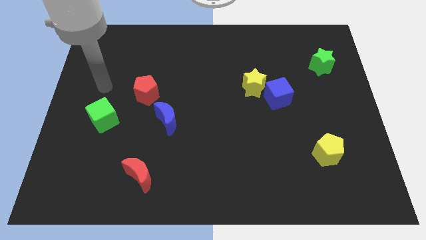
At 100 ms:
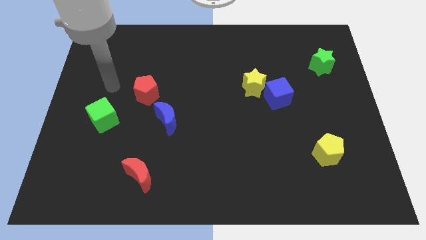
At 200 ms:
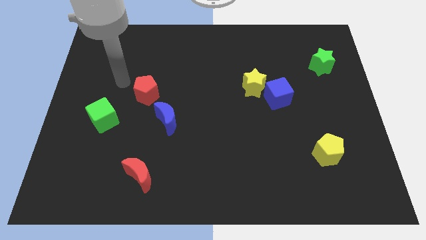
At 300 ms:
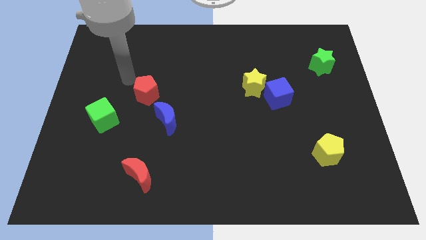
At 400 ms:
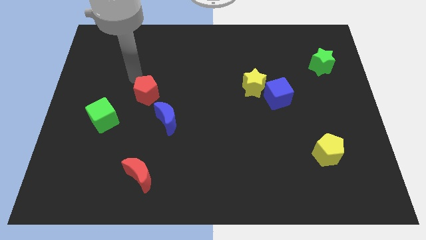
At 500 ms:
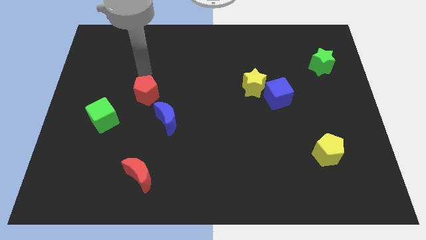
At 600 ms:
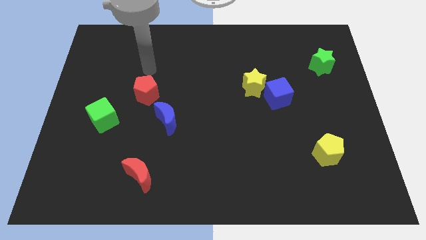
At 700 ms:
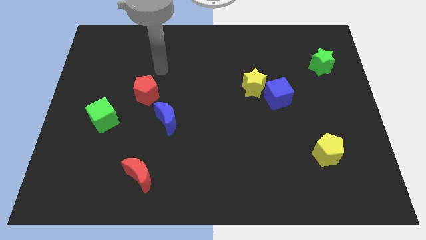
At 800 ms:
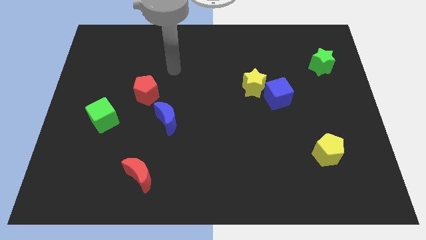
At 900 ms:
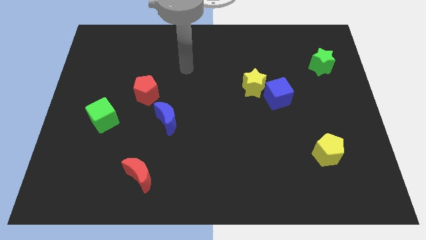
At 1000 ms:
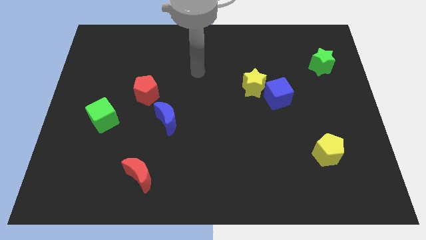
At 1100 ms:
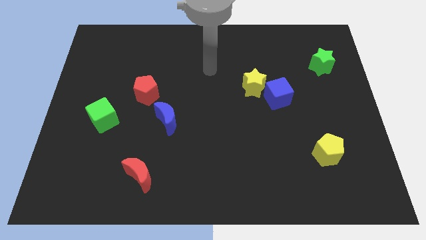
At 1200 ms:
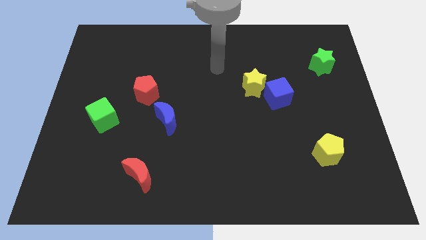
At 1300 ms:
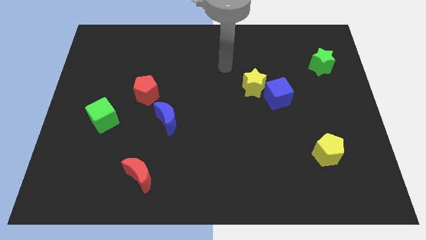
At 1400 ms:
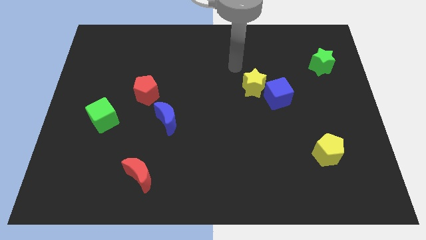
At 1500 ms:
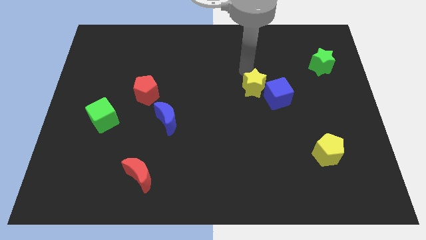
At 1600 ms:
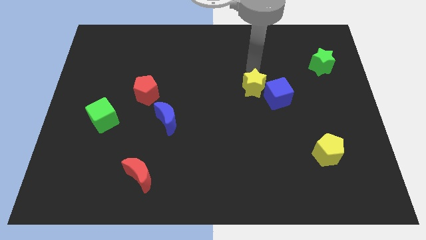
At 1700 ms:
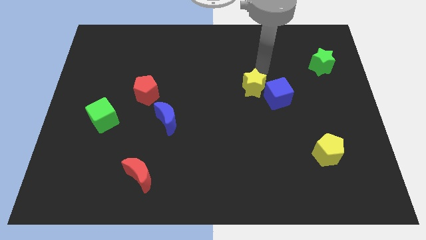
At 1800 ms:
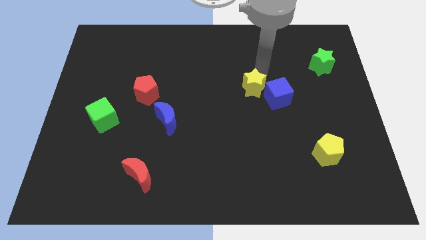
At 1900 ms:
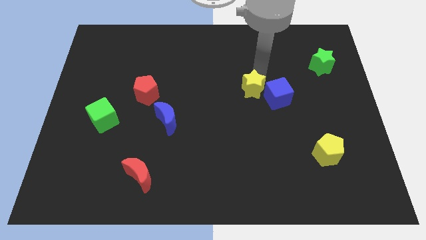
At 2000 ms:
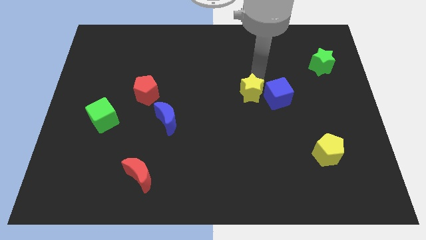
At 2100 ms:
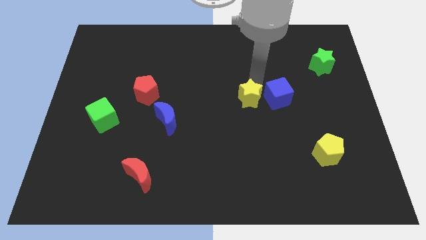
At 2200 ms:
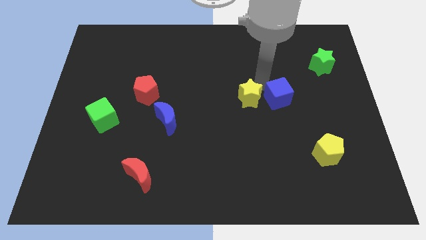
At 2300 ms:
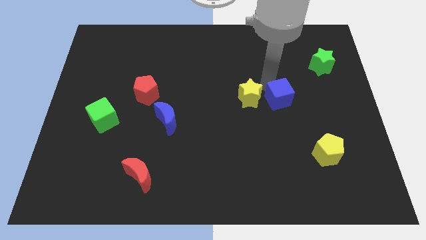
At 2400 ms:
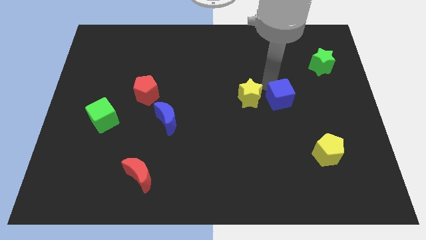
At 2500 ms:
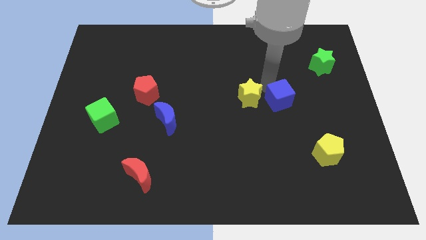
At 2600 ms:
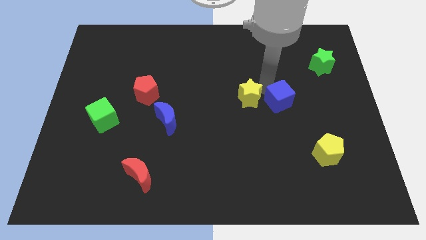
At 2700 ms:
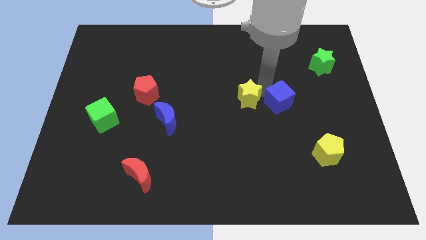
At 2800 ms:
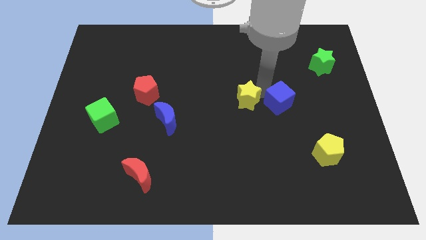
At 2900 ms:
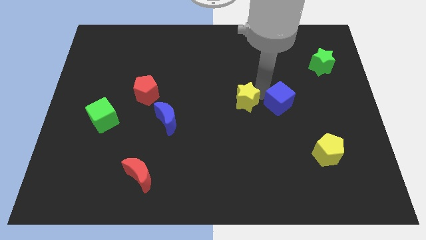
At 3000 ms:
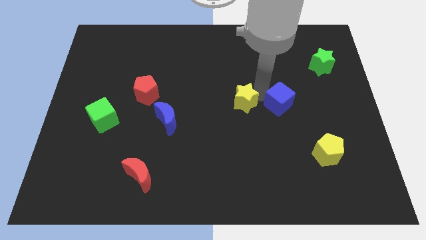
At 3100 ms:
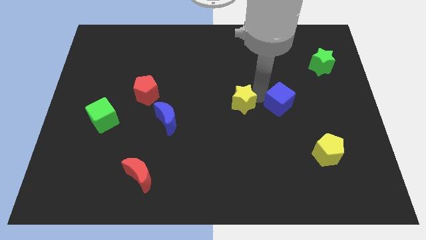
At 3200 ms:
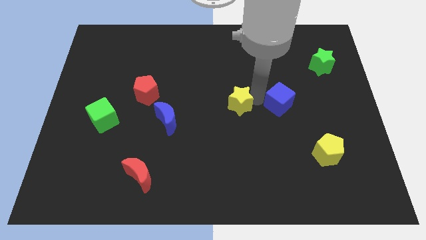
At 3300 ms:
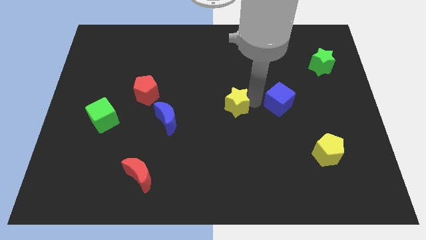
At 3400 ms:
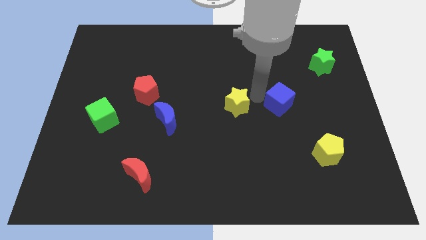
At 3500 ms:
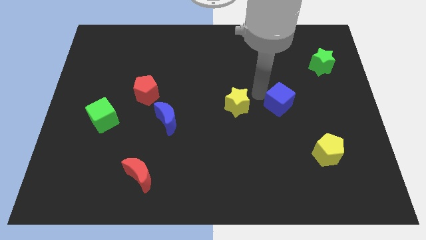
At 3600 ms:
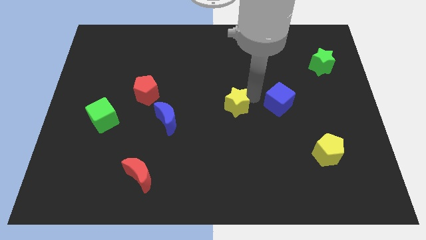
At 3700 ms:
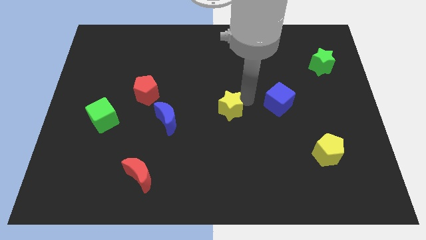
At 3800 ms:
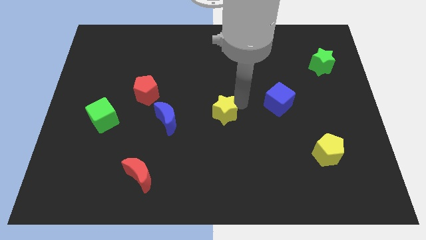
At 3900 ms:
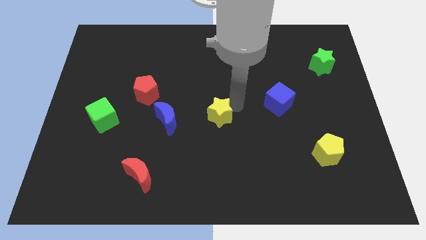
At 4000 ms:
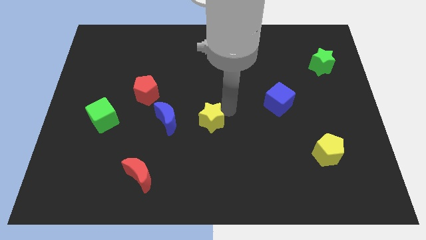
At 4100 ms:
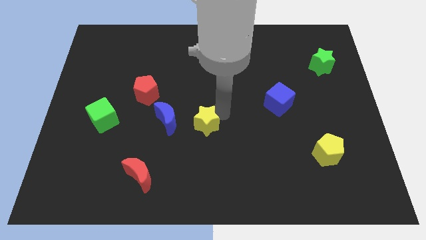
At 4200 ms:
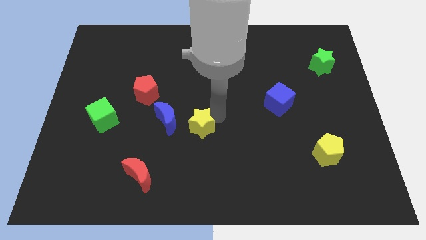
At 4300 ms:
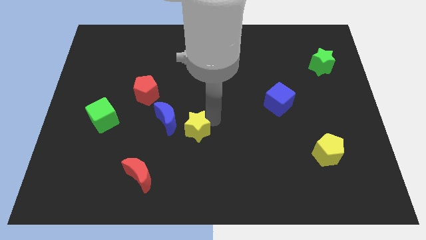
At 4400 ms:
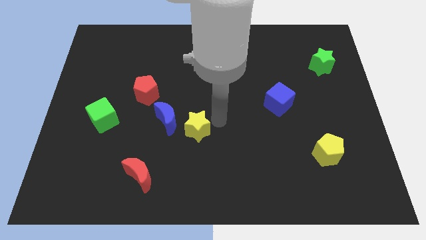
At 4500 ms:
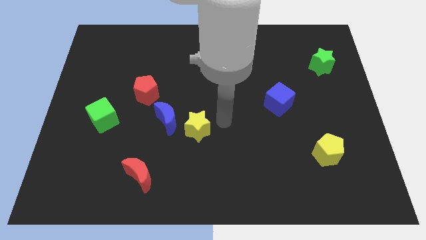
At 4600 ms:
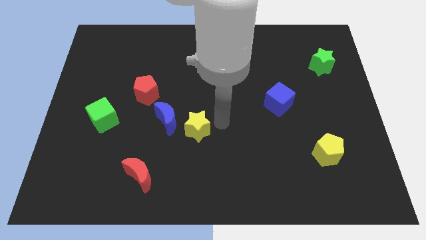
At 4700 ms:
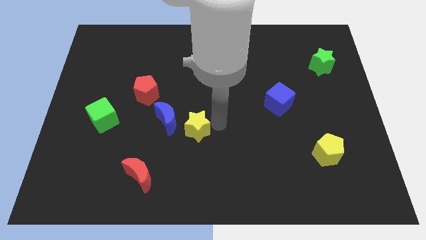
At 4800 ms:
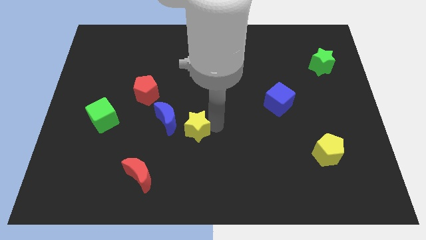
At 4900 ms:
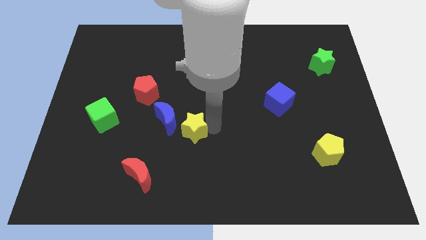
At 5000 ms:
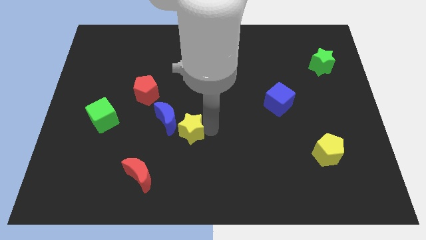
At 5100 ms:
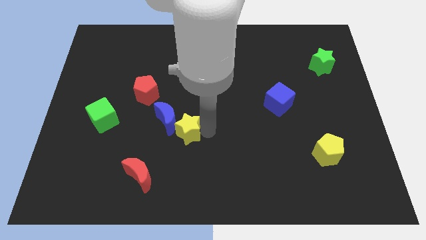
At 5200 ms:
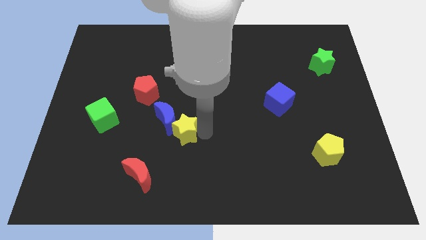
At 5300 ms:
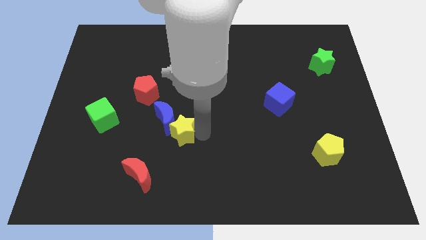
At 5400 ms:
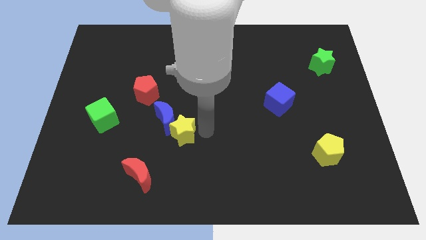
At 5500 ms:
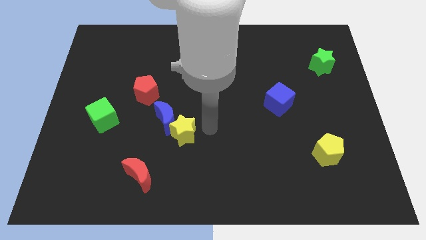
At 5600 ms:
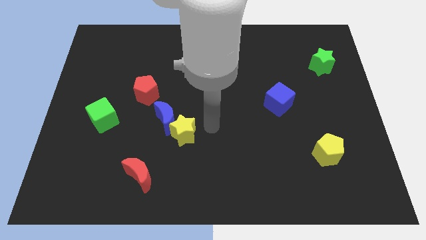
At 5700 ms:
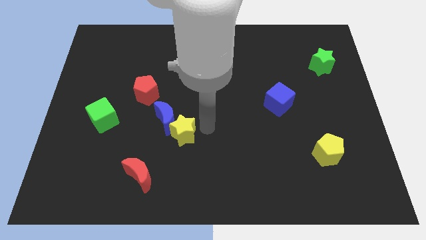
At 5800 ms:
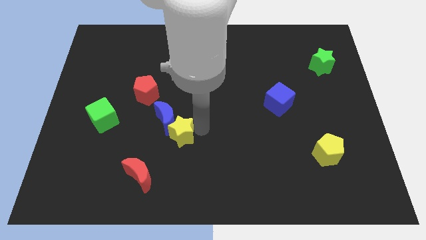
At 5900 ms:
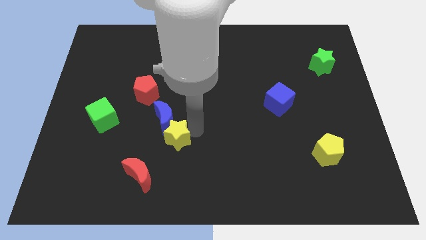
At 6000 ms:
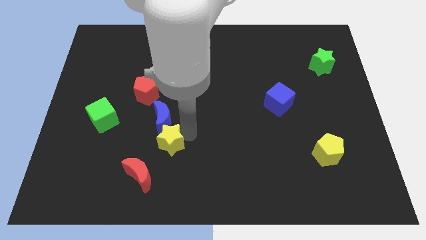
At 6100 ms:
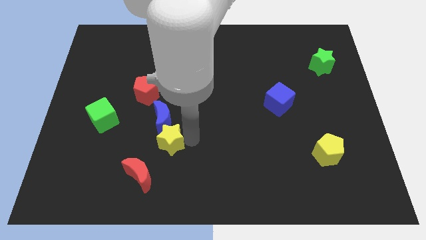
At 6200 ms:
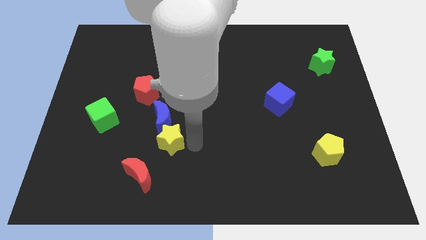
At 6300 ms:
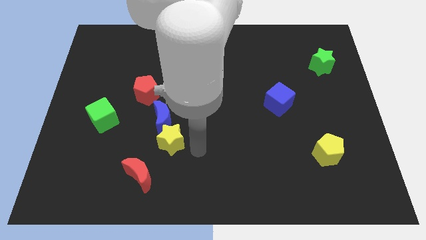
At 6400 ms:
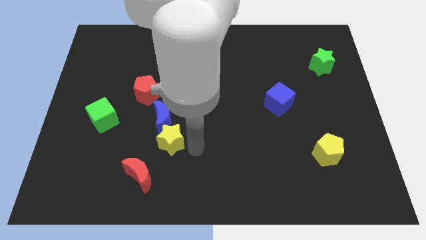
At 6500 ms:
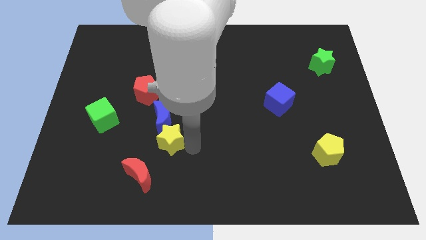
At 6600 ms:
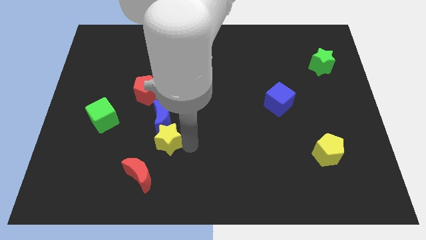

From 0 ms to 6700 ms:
push the yellow star to the top of the red moon

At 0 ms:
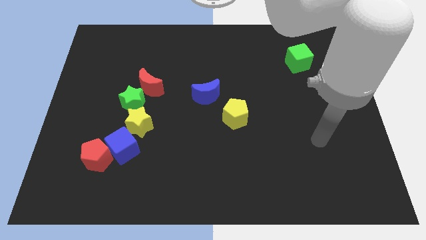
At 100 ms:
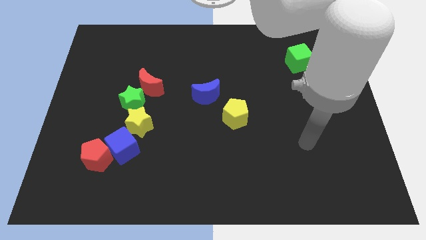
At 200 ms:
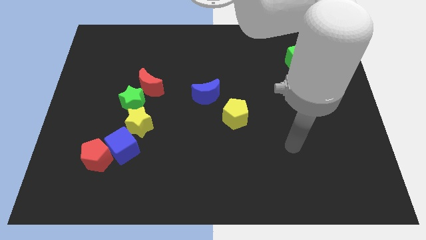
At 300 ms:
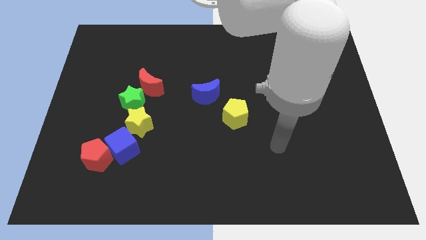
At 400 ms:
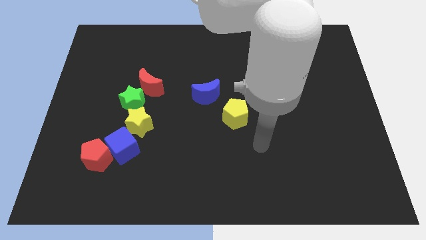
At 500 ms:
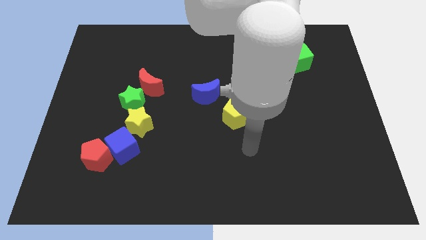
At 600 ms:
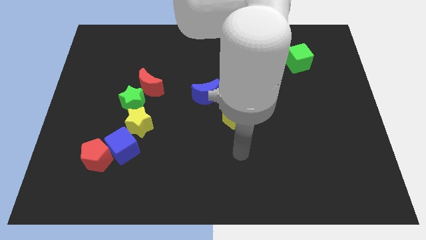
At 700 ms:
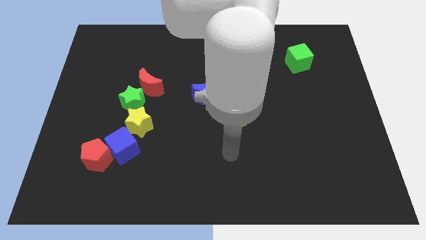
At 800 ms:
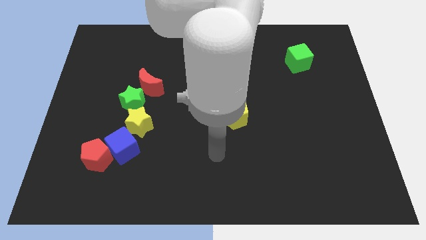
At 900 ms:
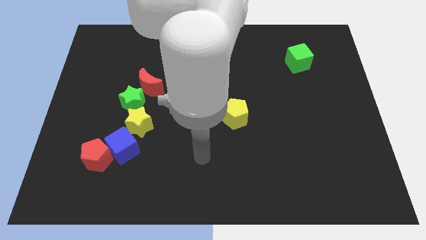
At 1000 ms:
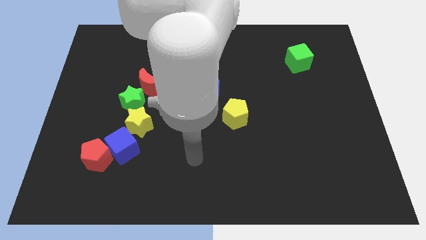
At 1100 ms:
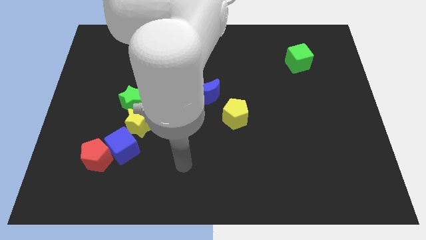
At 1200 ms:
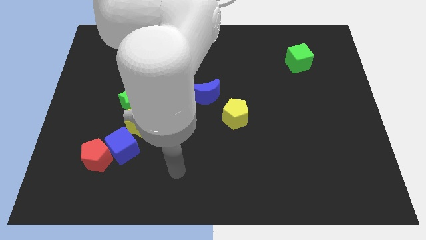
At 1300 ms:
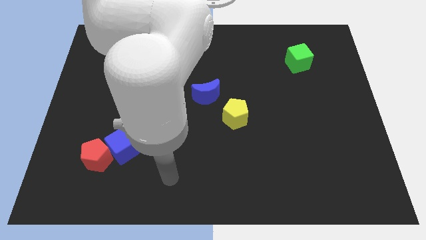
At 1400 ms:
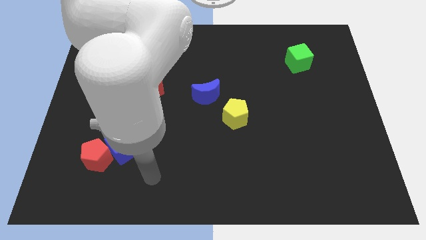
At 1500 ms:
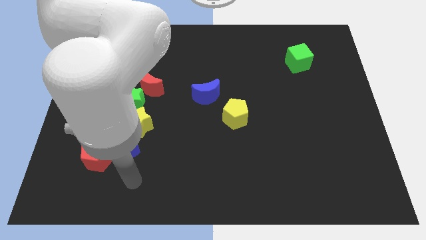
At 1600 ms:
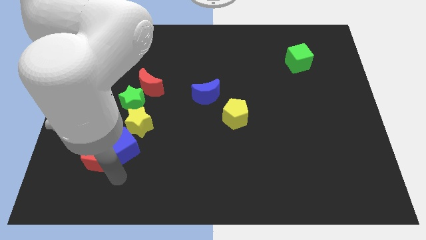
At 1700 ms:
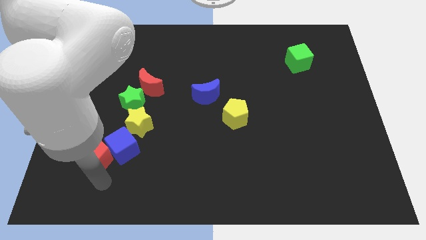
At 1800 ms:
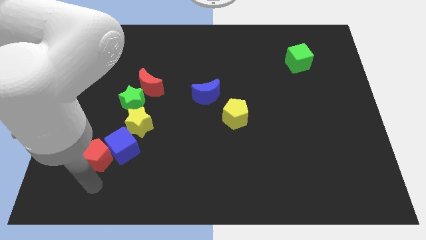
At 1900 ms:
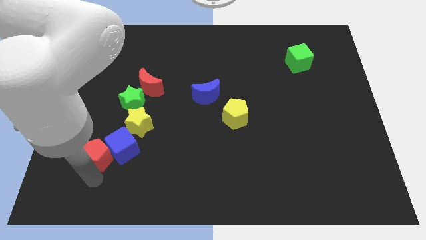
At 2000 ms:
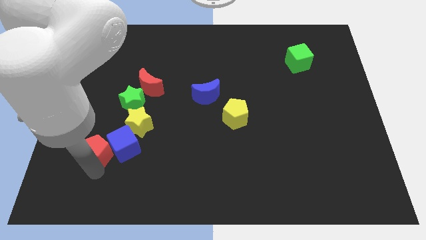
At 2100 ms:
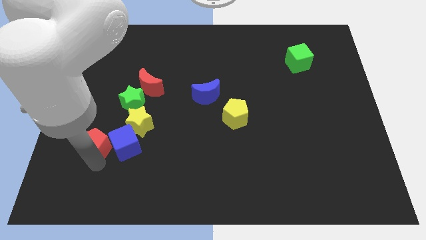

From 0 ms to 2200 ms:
put the red pentagon diagonally up and to the left of the blue cube
